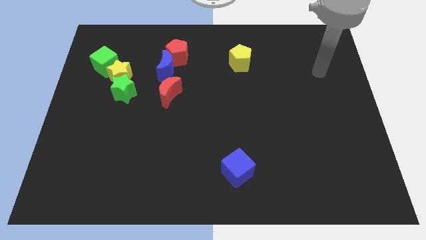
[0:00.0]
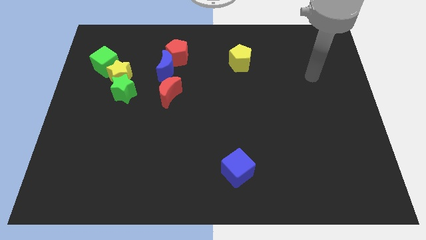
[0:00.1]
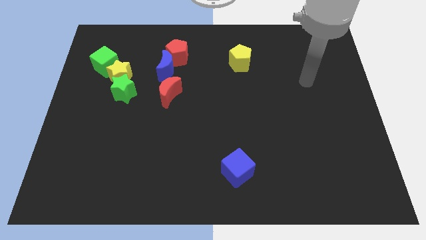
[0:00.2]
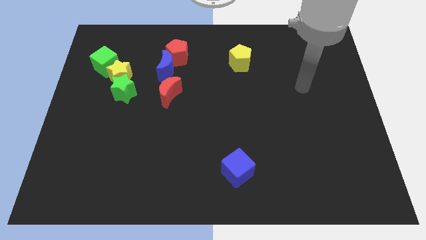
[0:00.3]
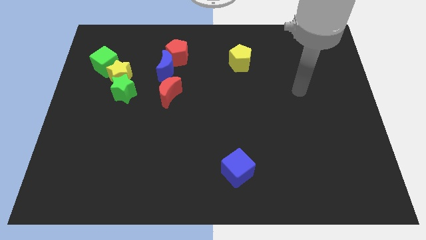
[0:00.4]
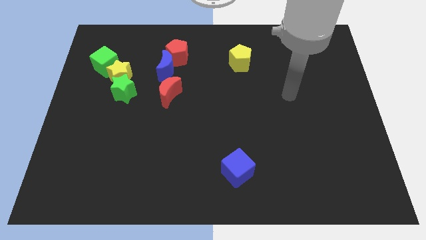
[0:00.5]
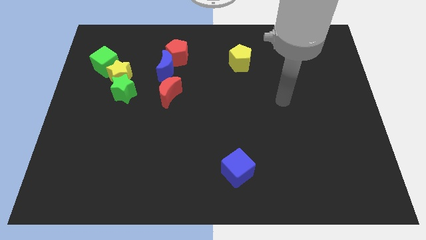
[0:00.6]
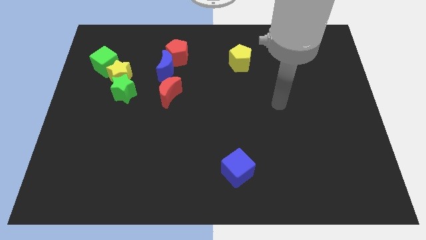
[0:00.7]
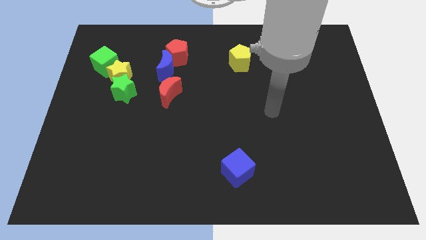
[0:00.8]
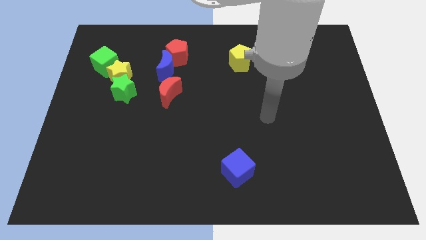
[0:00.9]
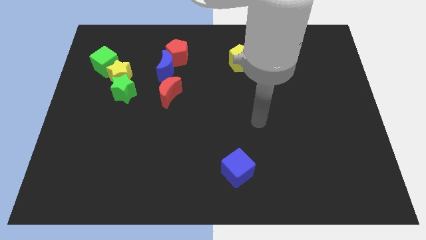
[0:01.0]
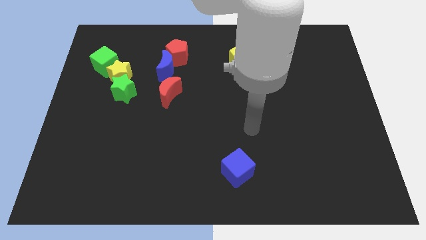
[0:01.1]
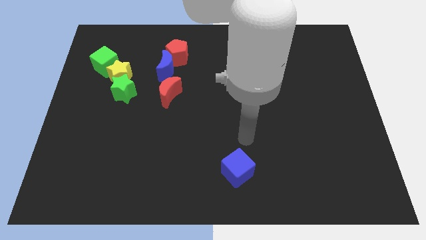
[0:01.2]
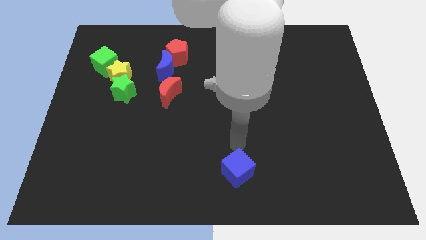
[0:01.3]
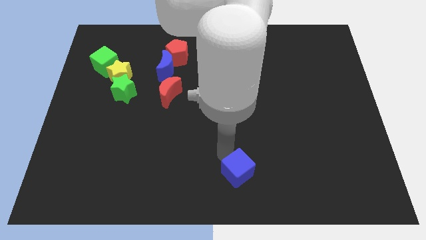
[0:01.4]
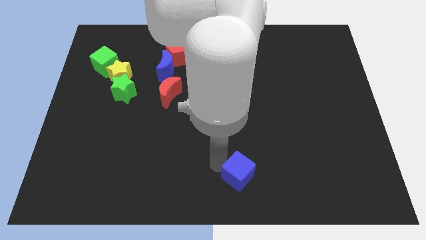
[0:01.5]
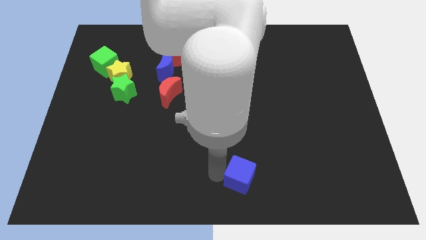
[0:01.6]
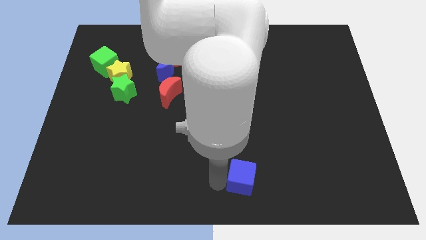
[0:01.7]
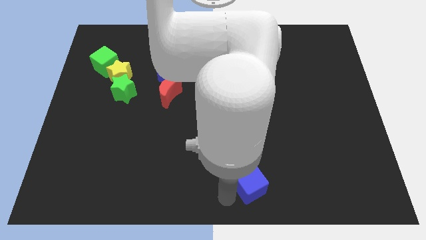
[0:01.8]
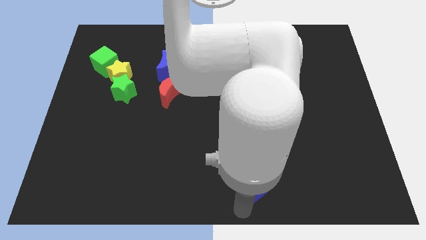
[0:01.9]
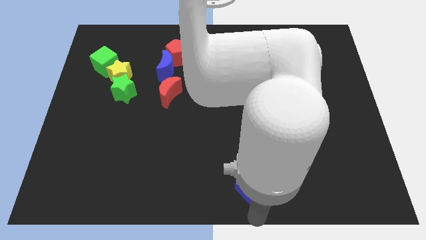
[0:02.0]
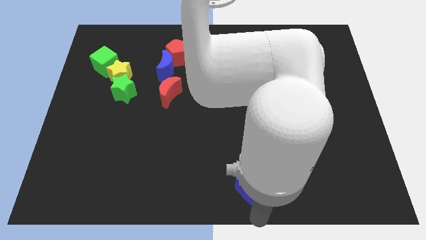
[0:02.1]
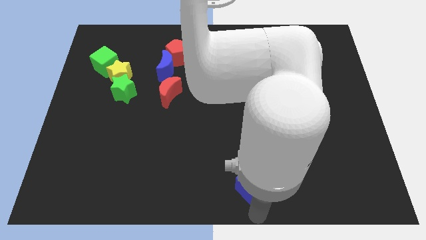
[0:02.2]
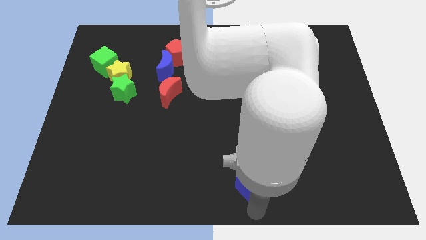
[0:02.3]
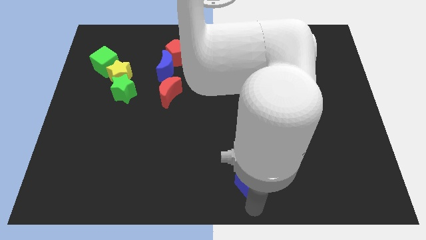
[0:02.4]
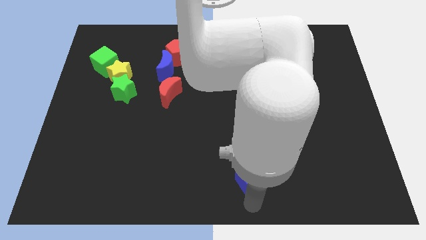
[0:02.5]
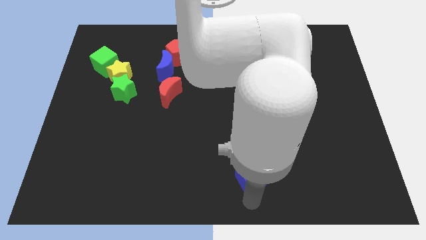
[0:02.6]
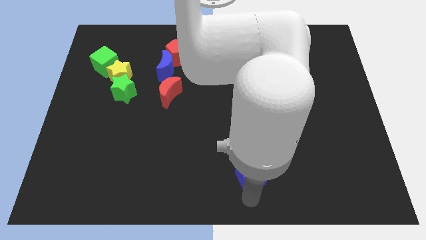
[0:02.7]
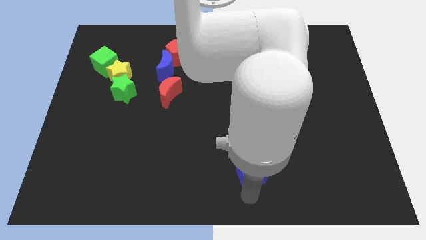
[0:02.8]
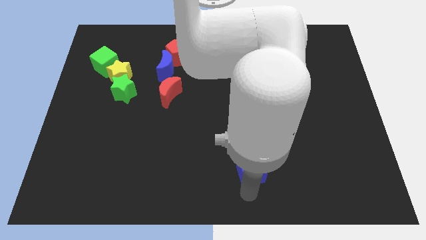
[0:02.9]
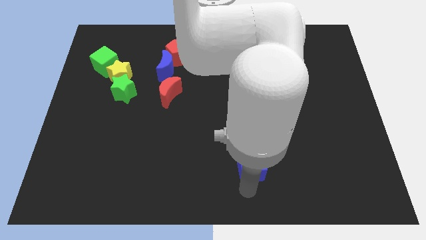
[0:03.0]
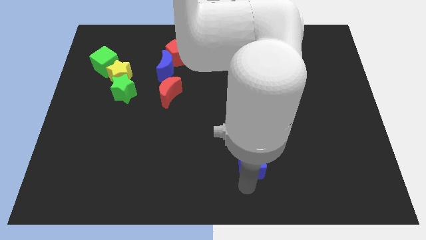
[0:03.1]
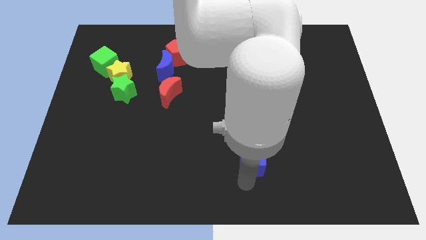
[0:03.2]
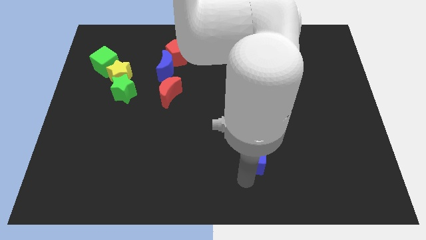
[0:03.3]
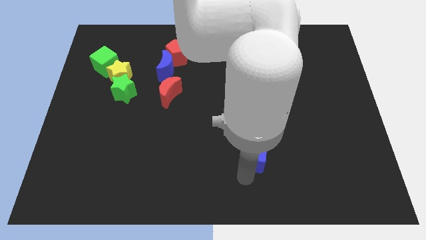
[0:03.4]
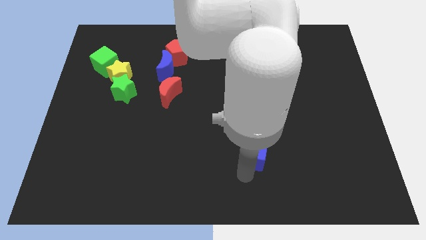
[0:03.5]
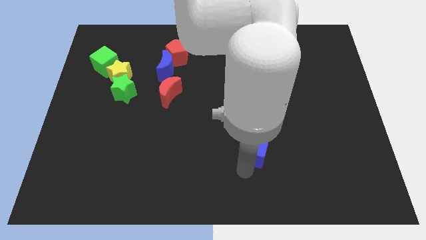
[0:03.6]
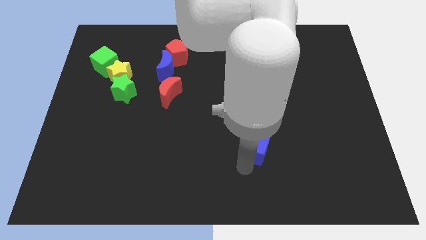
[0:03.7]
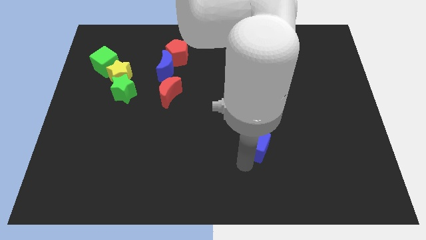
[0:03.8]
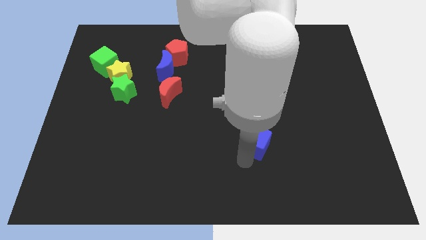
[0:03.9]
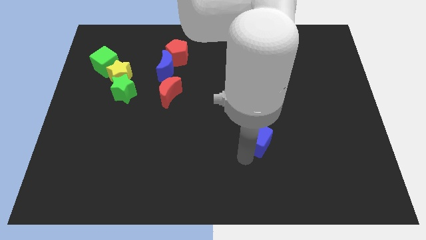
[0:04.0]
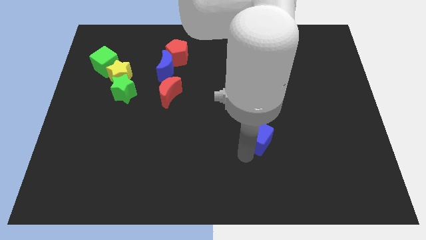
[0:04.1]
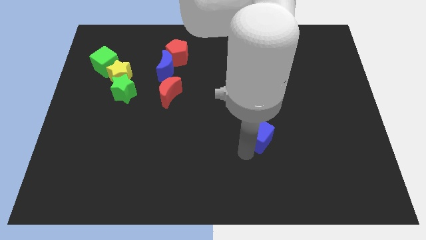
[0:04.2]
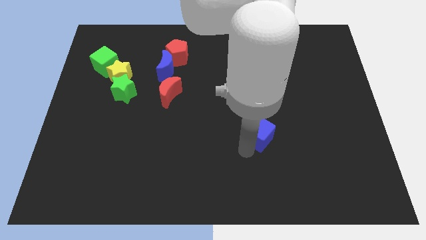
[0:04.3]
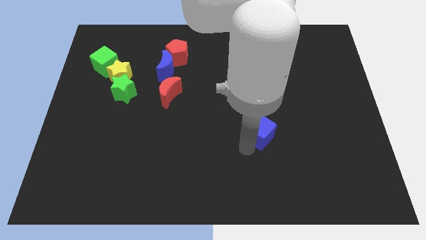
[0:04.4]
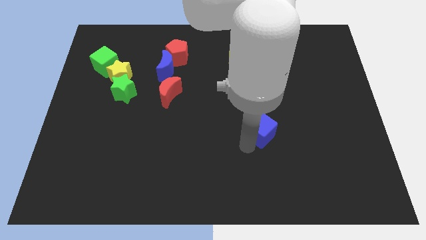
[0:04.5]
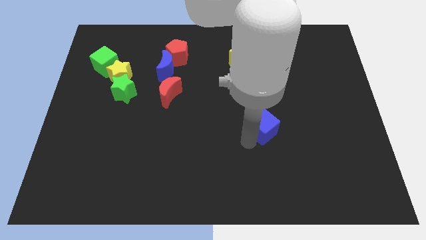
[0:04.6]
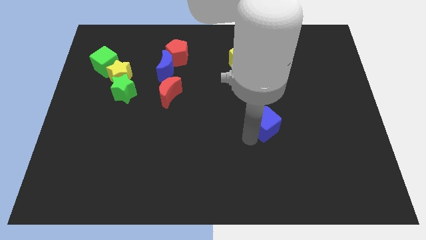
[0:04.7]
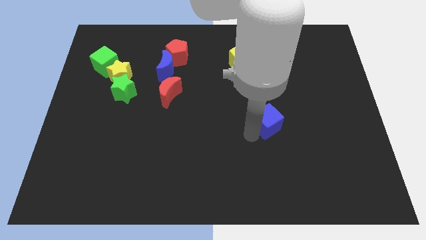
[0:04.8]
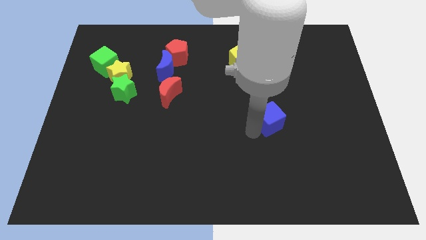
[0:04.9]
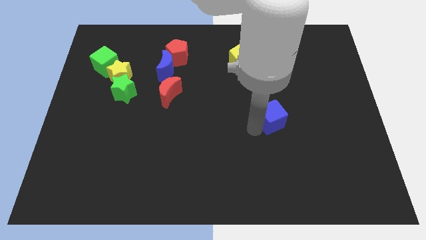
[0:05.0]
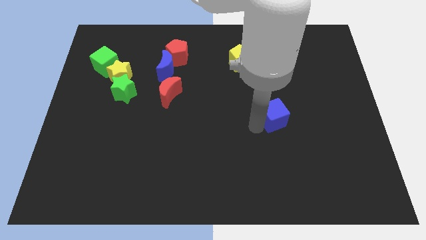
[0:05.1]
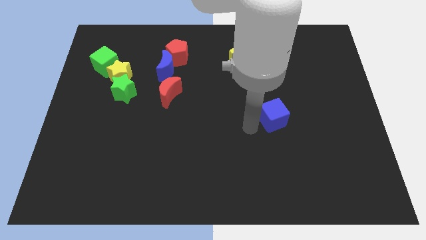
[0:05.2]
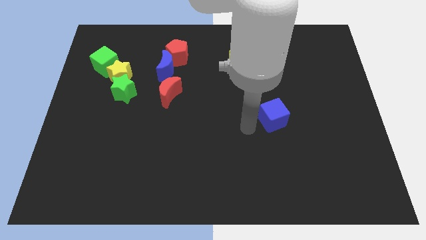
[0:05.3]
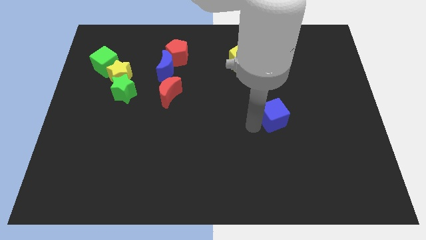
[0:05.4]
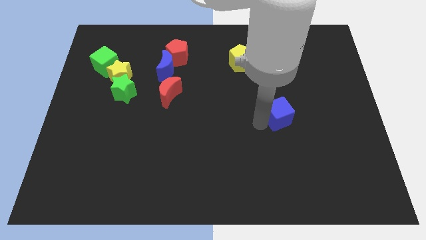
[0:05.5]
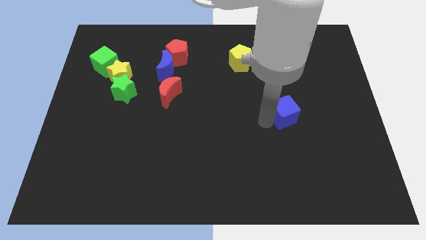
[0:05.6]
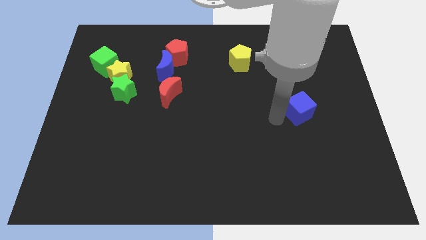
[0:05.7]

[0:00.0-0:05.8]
move the blue cube diagonally upwards and to the right

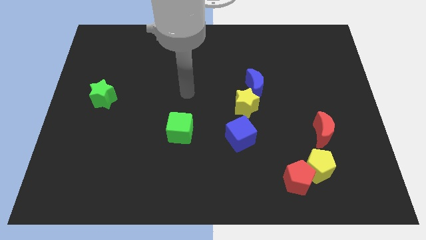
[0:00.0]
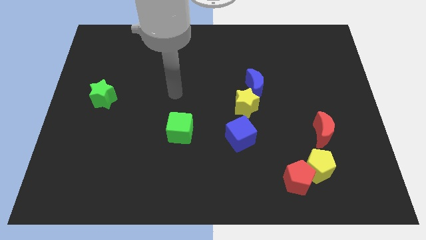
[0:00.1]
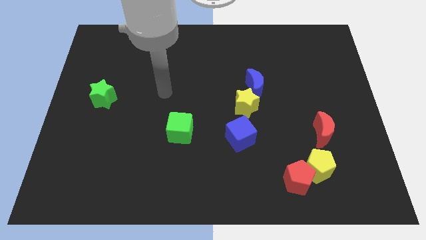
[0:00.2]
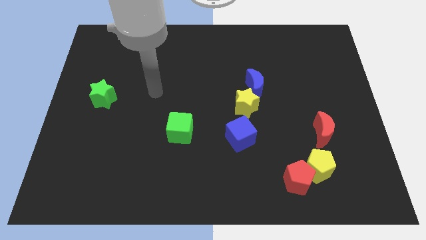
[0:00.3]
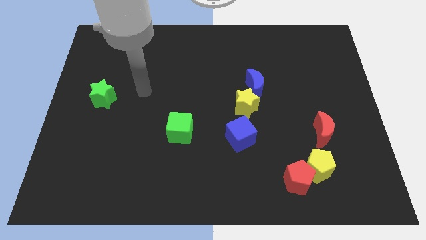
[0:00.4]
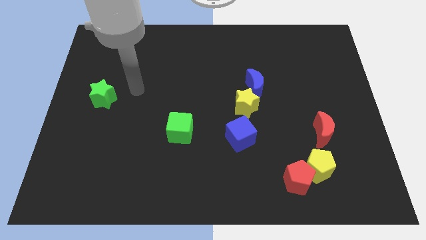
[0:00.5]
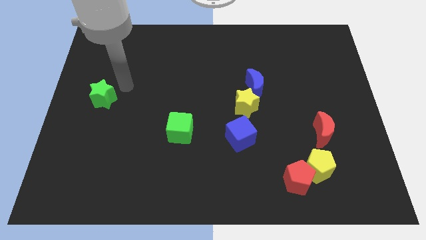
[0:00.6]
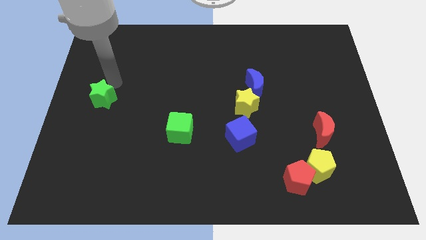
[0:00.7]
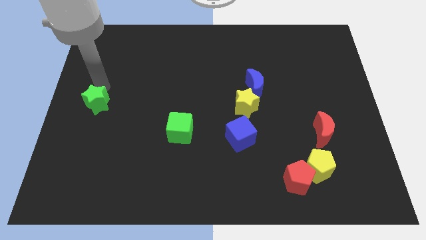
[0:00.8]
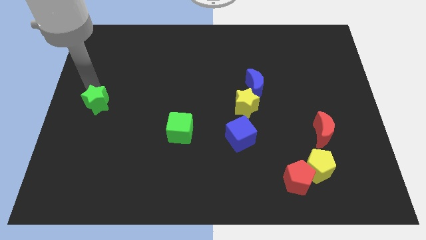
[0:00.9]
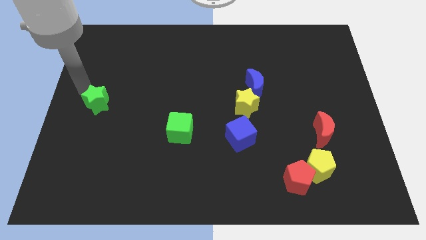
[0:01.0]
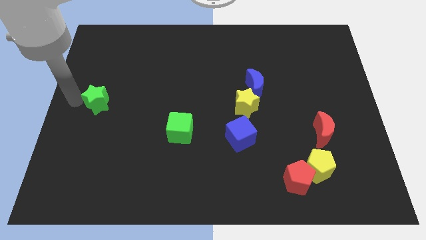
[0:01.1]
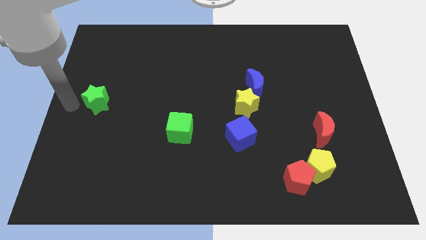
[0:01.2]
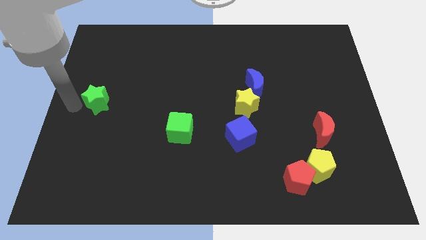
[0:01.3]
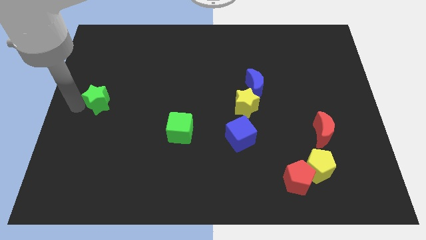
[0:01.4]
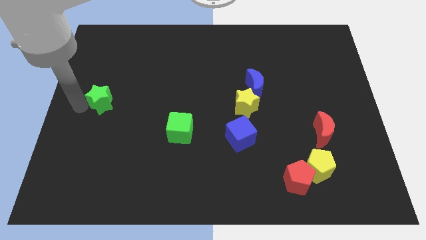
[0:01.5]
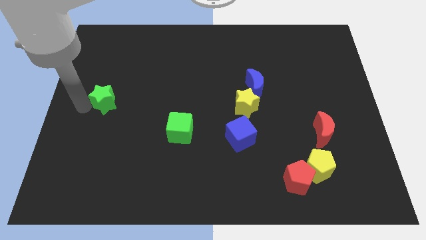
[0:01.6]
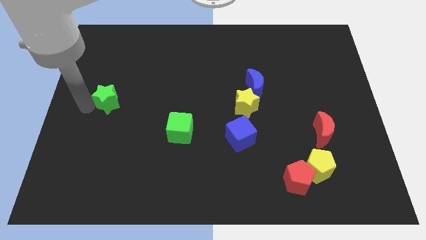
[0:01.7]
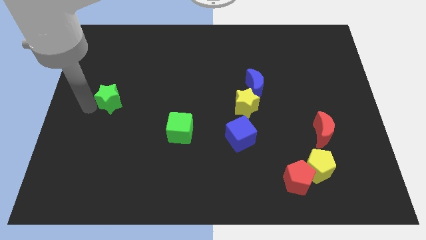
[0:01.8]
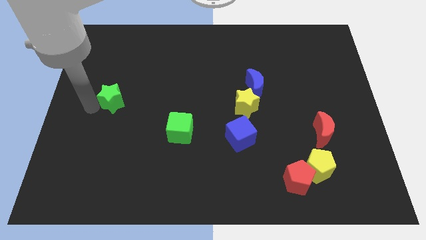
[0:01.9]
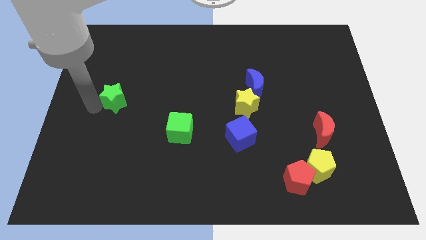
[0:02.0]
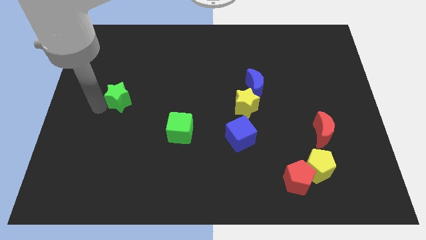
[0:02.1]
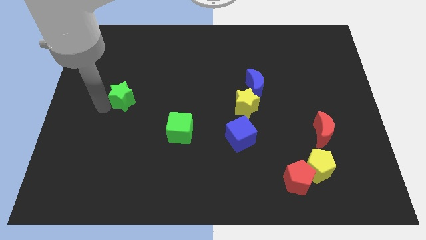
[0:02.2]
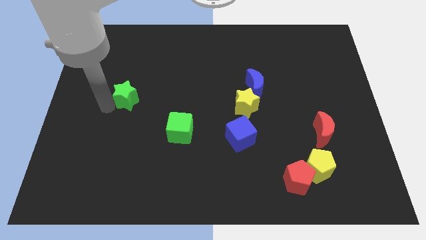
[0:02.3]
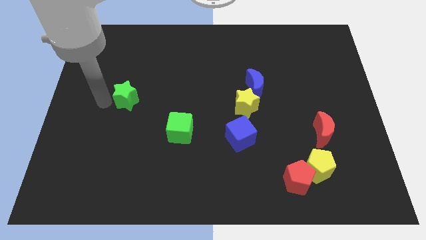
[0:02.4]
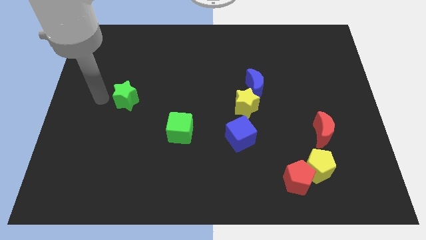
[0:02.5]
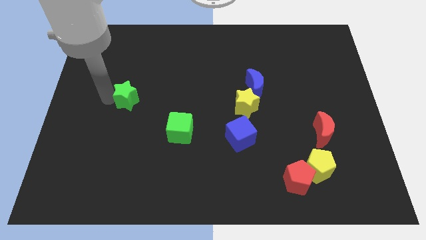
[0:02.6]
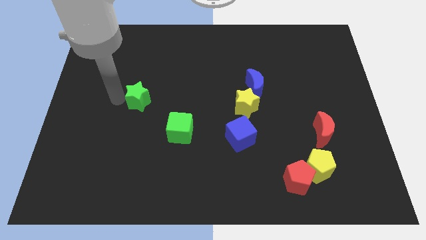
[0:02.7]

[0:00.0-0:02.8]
slightly slide the green star to the right
